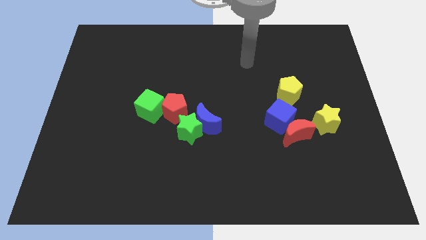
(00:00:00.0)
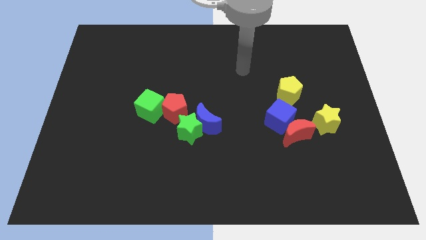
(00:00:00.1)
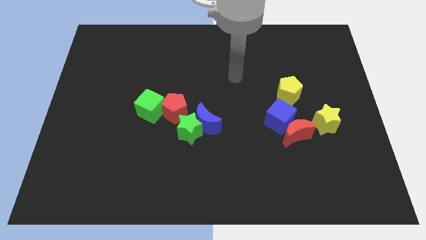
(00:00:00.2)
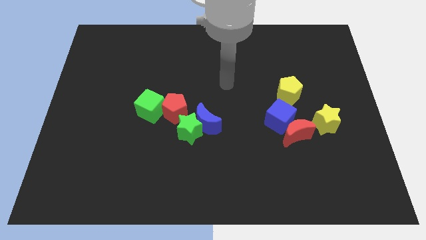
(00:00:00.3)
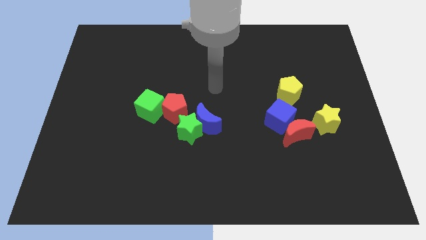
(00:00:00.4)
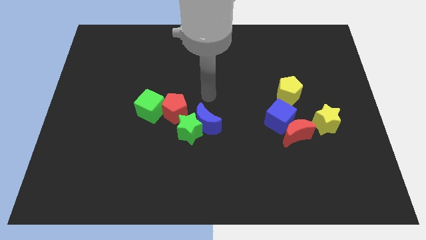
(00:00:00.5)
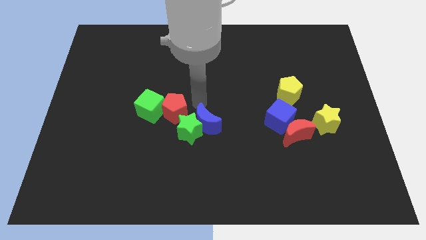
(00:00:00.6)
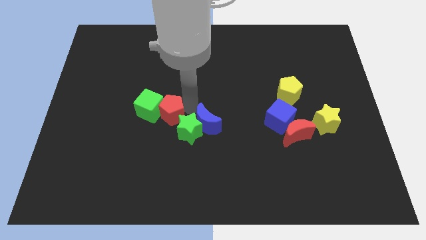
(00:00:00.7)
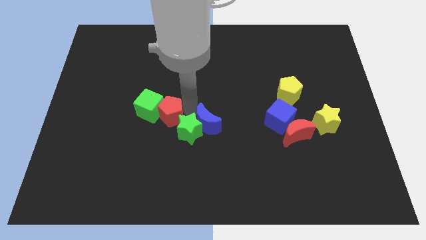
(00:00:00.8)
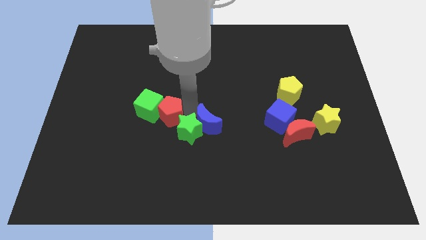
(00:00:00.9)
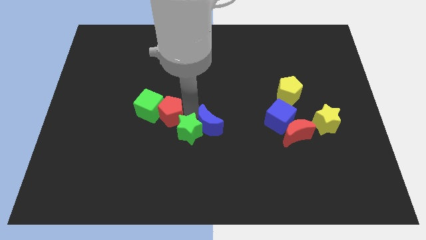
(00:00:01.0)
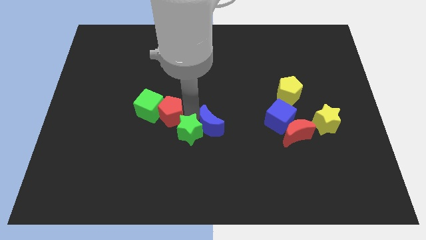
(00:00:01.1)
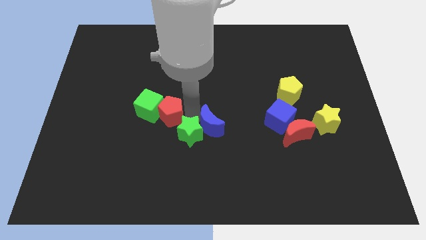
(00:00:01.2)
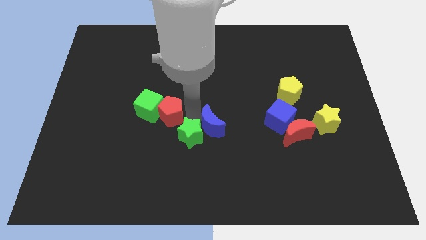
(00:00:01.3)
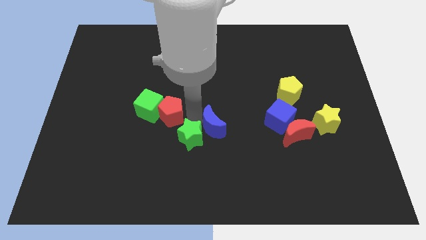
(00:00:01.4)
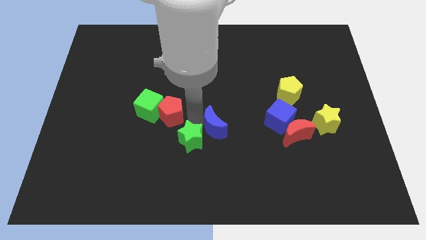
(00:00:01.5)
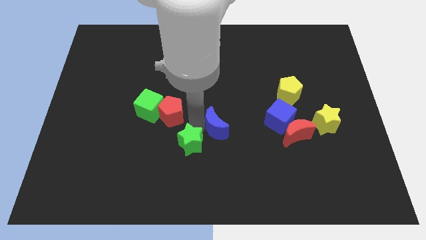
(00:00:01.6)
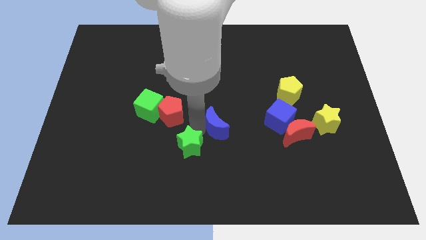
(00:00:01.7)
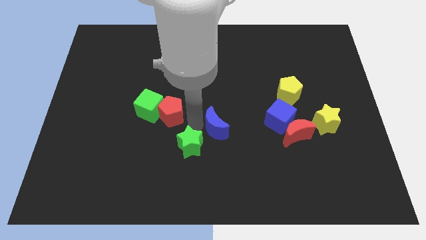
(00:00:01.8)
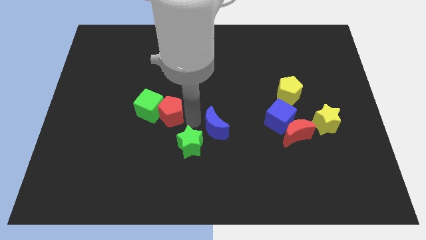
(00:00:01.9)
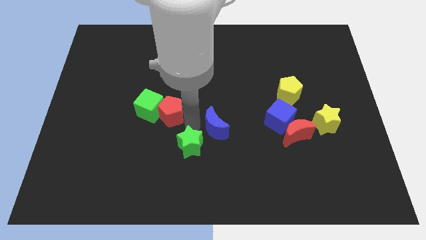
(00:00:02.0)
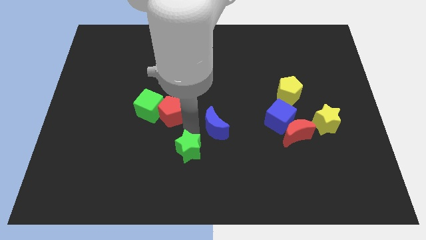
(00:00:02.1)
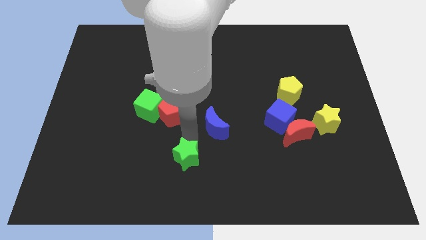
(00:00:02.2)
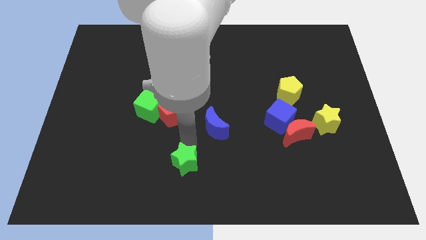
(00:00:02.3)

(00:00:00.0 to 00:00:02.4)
pull the green star apart from the blue moon and red pentagon

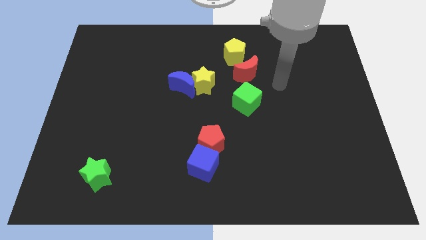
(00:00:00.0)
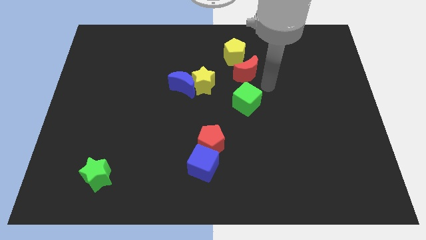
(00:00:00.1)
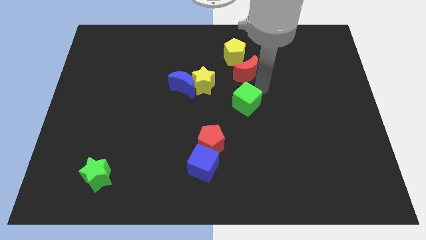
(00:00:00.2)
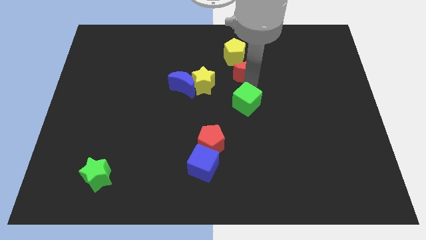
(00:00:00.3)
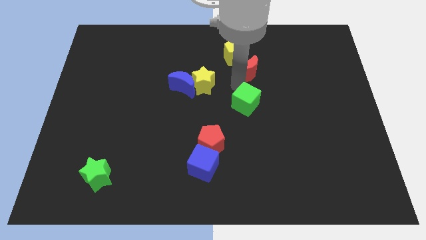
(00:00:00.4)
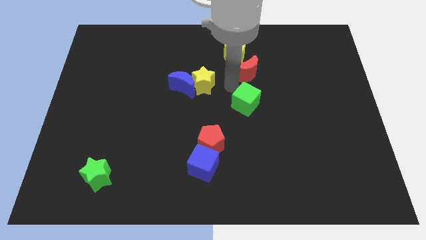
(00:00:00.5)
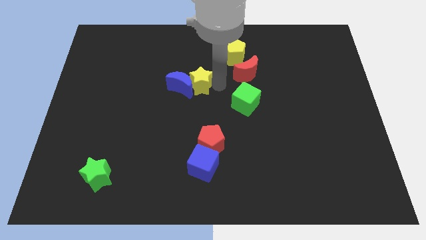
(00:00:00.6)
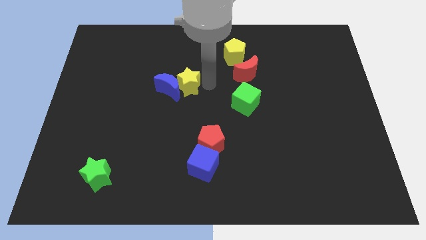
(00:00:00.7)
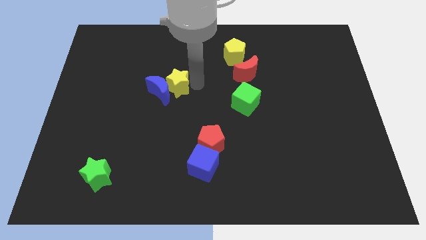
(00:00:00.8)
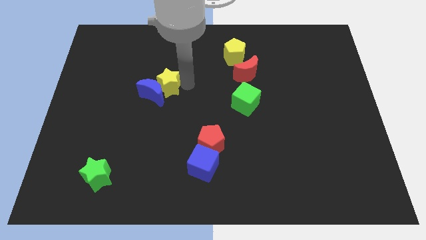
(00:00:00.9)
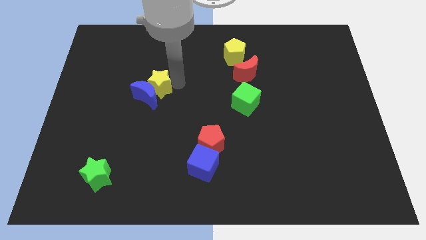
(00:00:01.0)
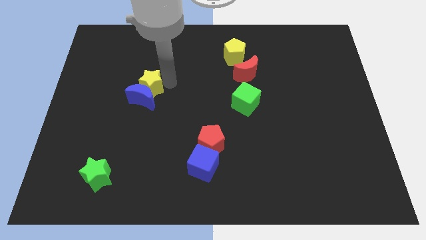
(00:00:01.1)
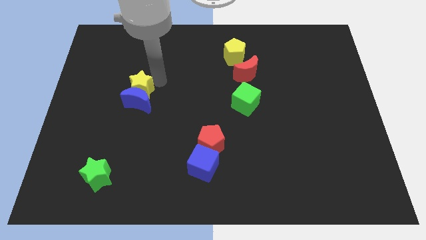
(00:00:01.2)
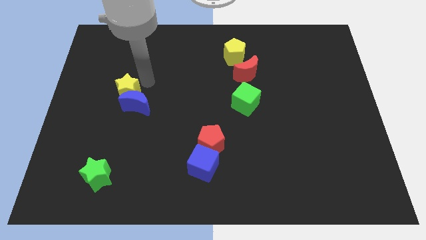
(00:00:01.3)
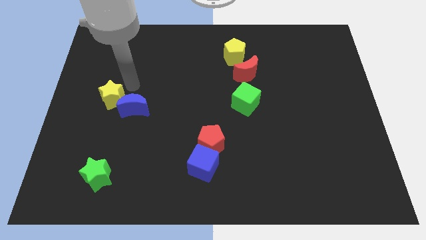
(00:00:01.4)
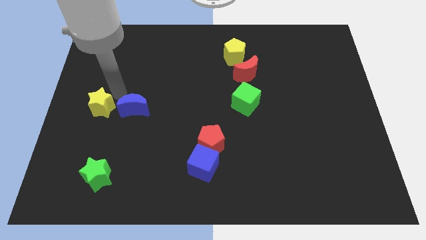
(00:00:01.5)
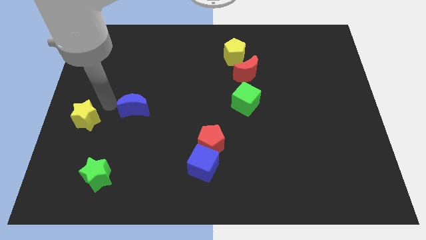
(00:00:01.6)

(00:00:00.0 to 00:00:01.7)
separate the blue moon from the yellow star

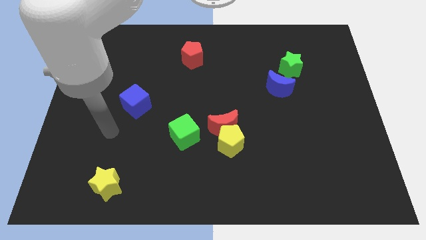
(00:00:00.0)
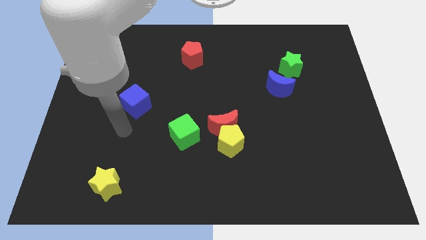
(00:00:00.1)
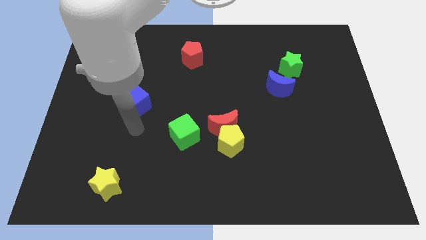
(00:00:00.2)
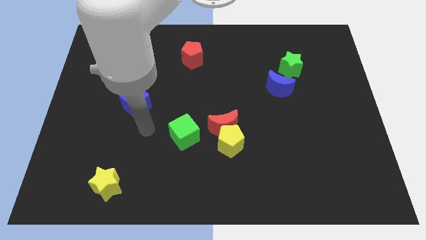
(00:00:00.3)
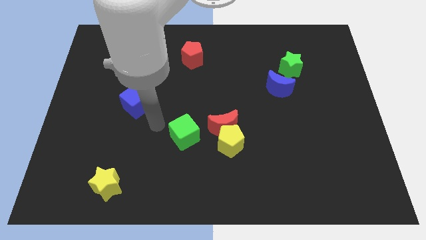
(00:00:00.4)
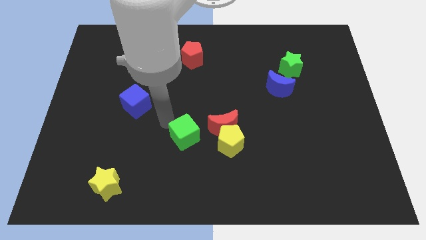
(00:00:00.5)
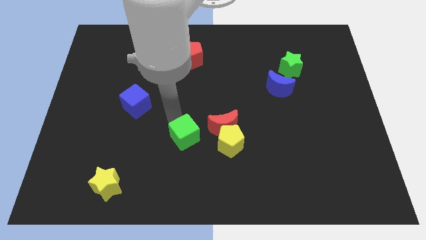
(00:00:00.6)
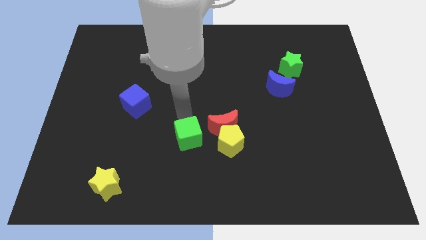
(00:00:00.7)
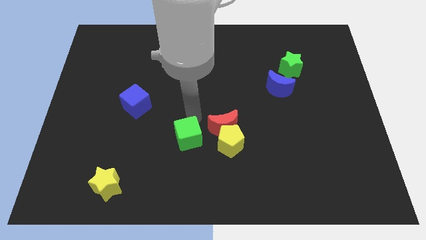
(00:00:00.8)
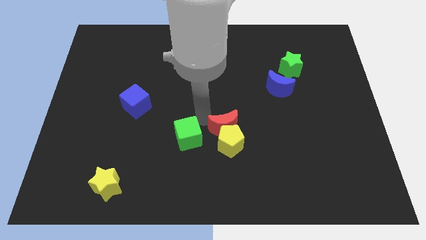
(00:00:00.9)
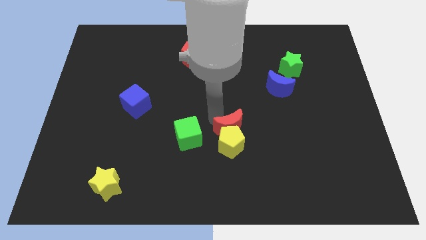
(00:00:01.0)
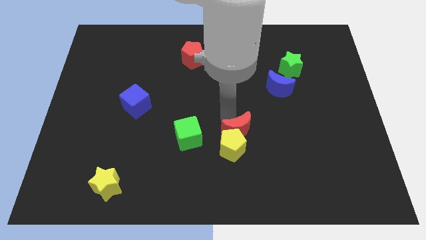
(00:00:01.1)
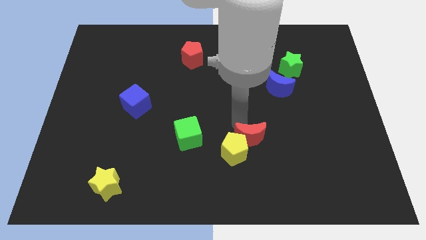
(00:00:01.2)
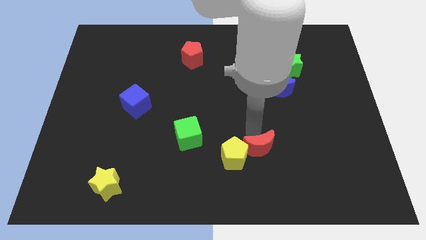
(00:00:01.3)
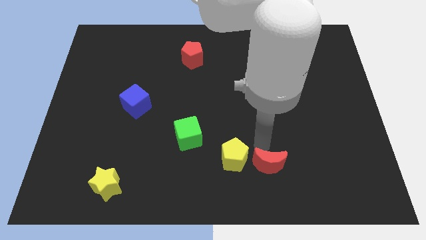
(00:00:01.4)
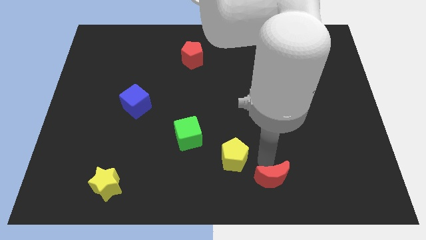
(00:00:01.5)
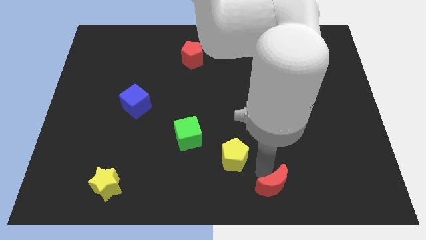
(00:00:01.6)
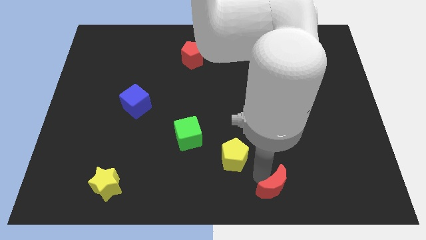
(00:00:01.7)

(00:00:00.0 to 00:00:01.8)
separate the yellow pentagon from the red moon

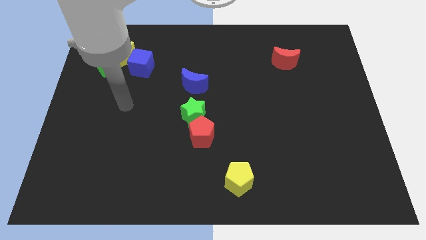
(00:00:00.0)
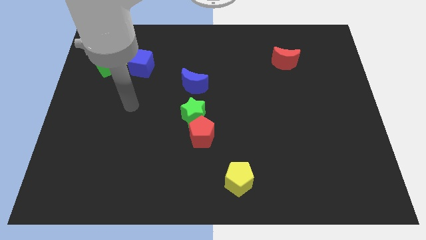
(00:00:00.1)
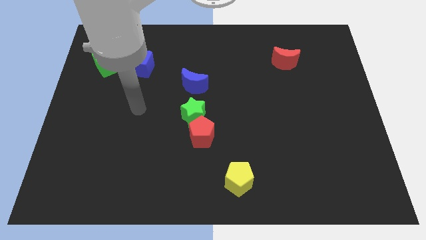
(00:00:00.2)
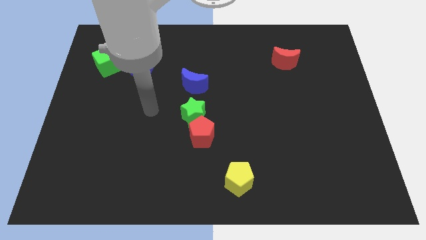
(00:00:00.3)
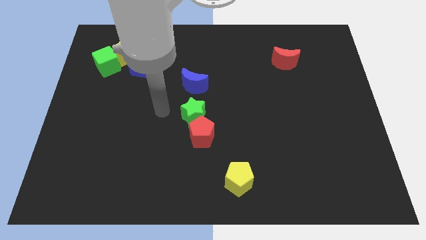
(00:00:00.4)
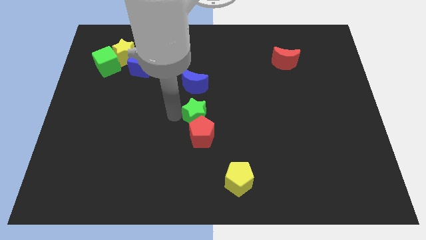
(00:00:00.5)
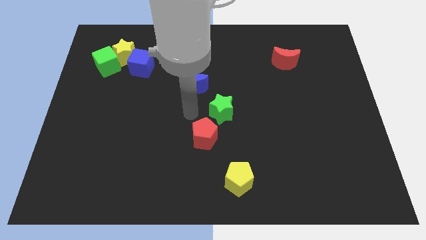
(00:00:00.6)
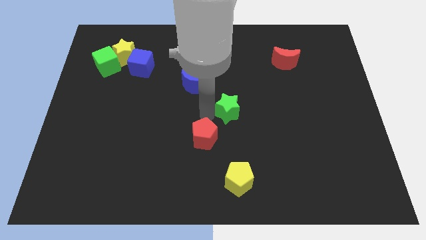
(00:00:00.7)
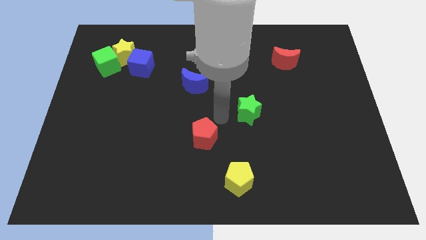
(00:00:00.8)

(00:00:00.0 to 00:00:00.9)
separate the red pentagon from the green star

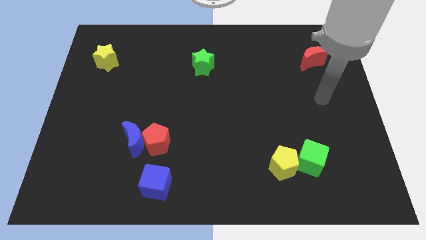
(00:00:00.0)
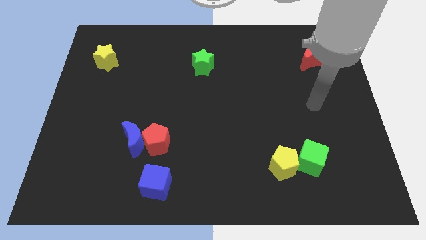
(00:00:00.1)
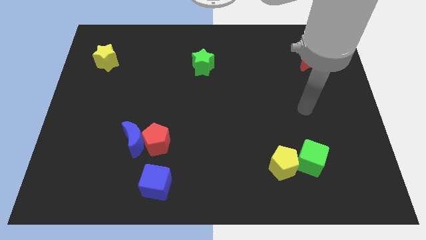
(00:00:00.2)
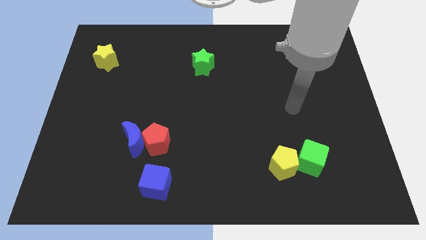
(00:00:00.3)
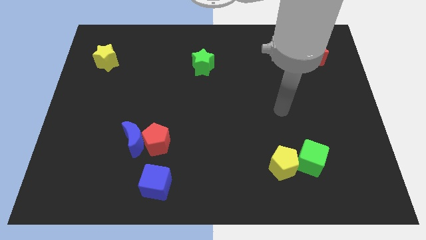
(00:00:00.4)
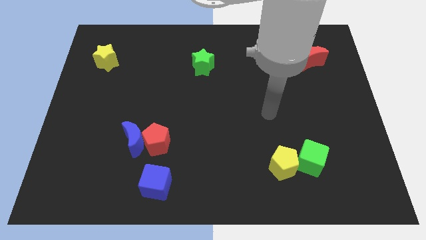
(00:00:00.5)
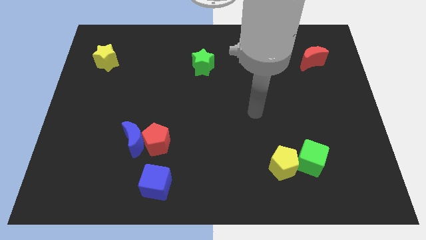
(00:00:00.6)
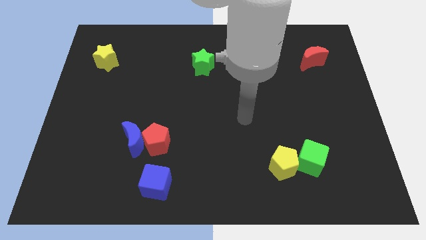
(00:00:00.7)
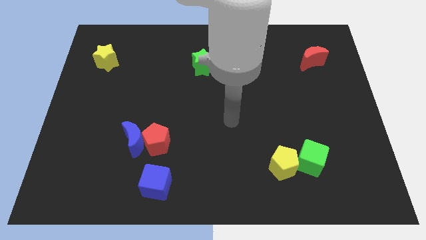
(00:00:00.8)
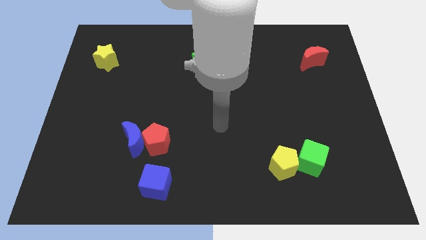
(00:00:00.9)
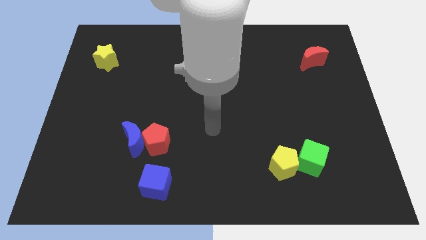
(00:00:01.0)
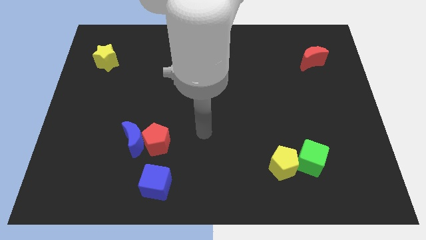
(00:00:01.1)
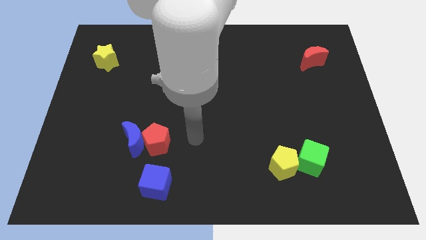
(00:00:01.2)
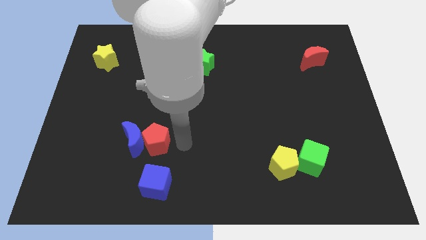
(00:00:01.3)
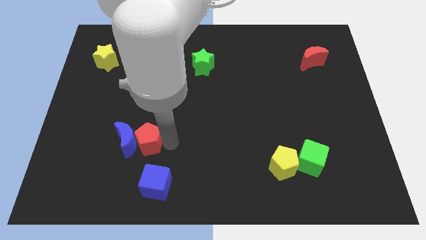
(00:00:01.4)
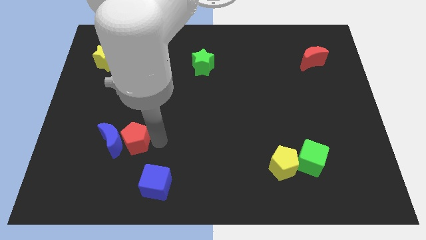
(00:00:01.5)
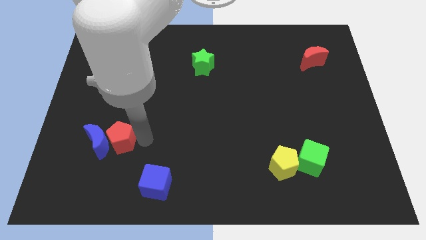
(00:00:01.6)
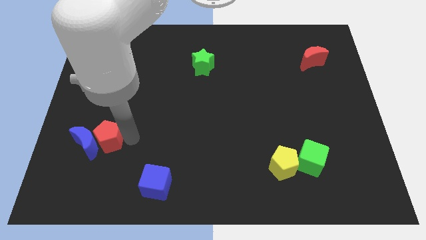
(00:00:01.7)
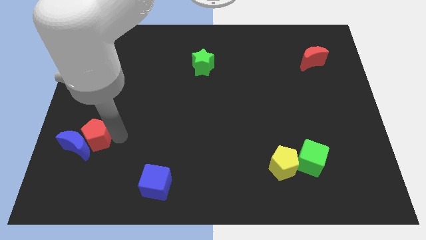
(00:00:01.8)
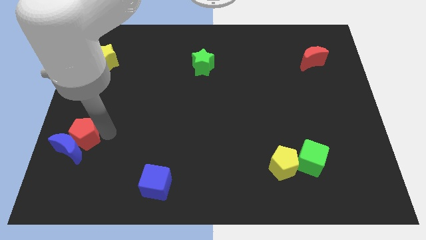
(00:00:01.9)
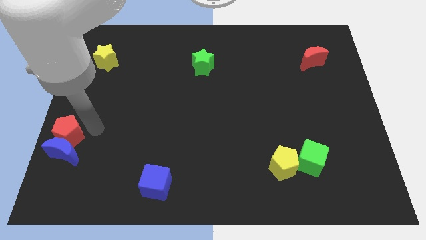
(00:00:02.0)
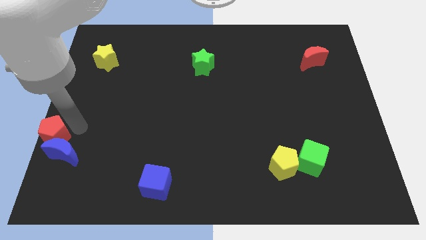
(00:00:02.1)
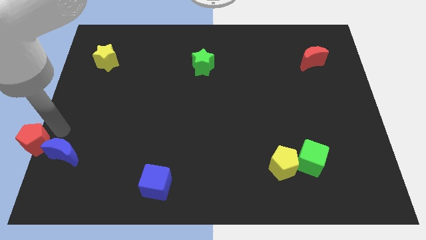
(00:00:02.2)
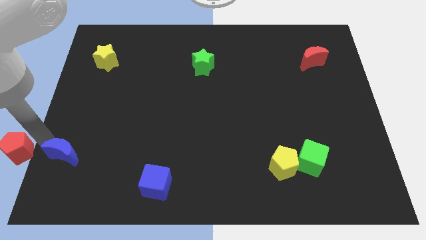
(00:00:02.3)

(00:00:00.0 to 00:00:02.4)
pull the blue moon apart from the red pentagon
